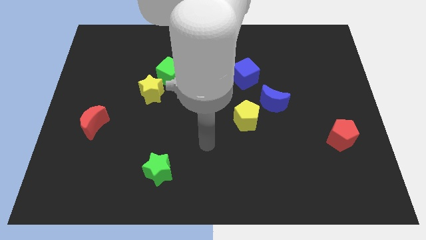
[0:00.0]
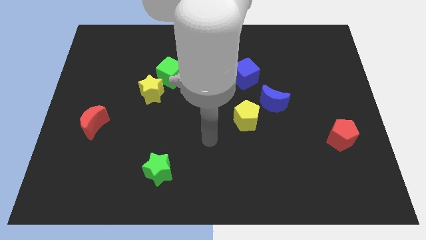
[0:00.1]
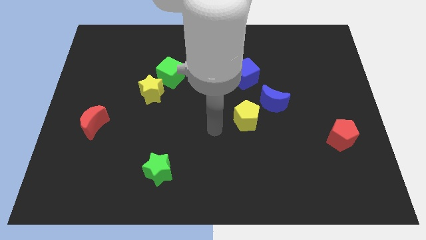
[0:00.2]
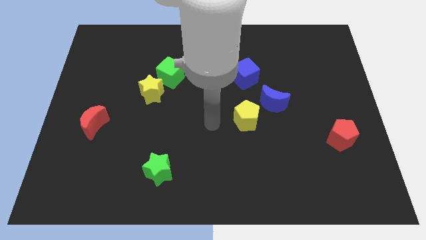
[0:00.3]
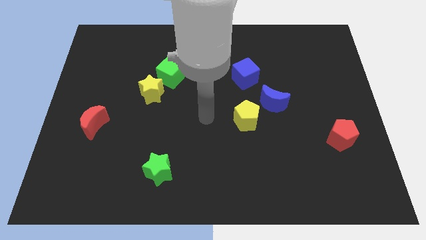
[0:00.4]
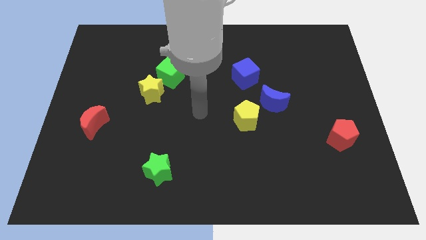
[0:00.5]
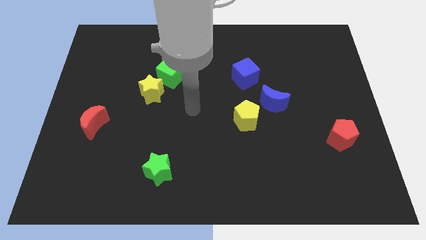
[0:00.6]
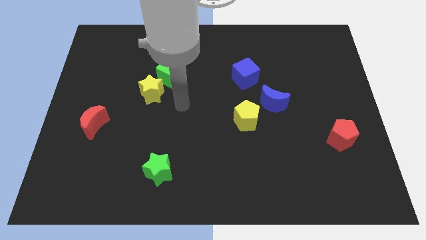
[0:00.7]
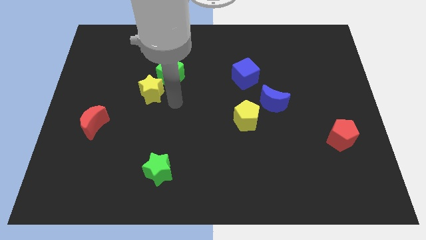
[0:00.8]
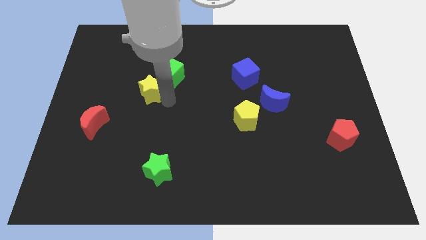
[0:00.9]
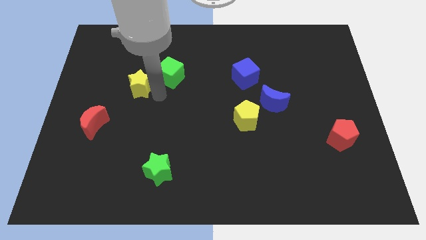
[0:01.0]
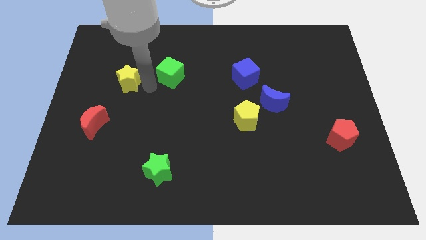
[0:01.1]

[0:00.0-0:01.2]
pull the green cube apart from the yellow star

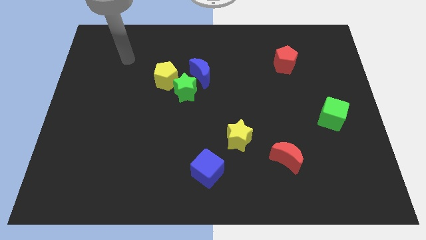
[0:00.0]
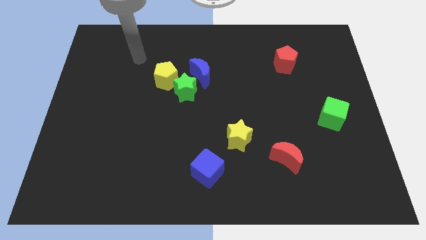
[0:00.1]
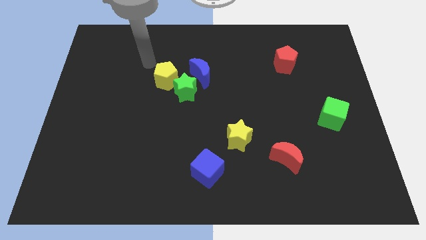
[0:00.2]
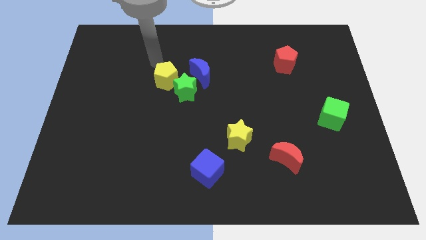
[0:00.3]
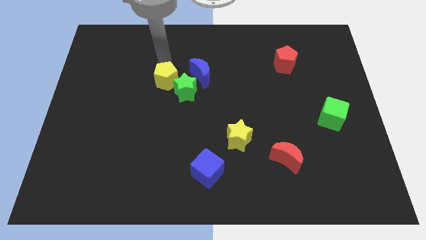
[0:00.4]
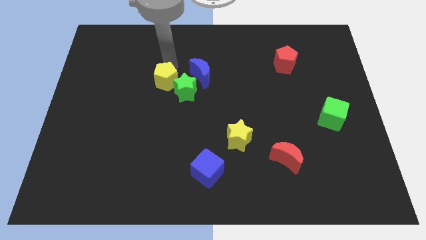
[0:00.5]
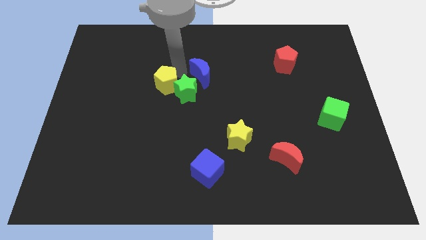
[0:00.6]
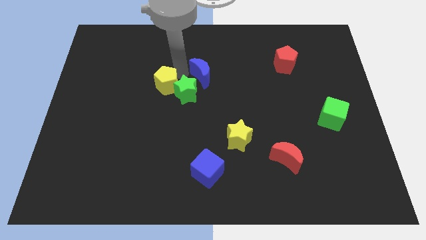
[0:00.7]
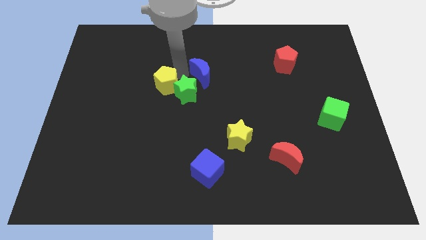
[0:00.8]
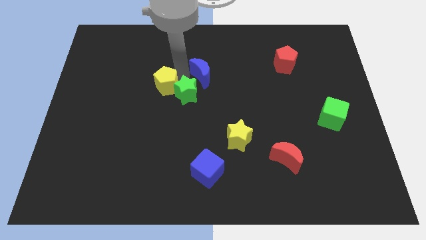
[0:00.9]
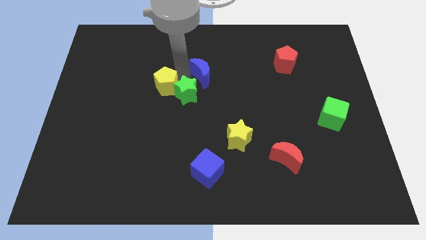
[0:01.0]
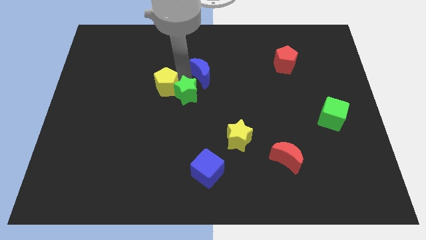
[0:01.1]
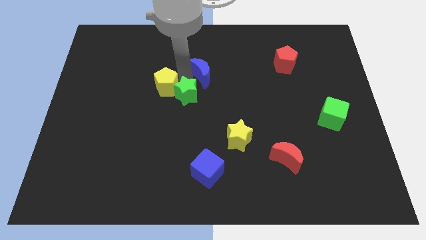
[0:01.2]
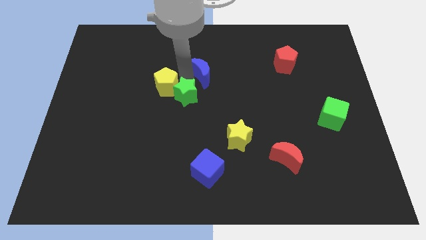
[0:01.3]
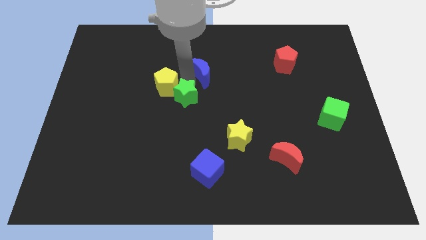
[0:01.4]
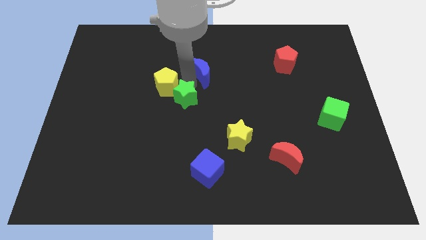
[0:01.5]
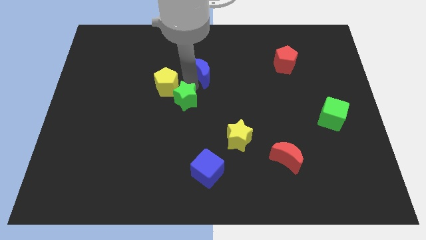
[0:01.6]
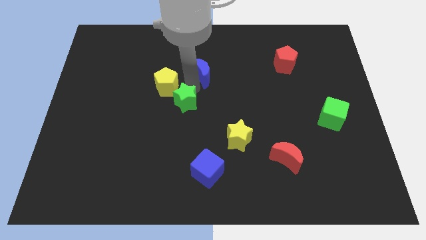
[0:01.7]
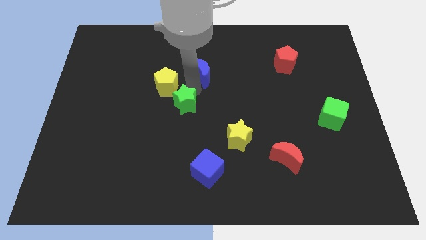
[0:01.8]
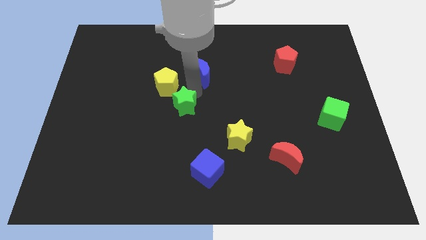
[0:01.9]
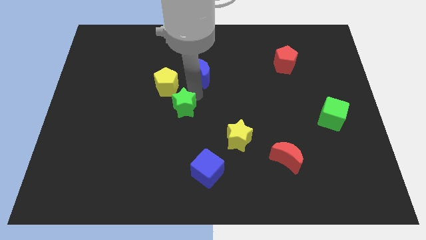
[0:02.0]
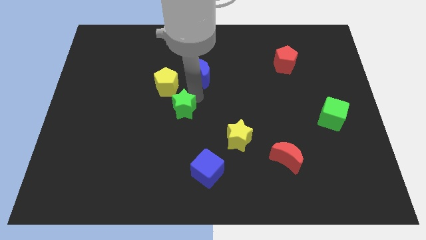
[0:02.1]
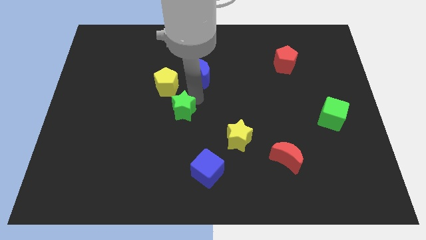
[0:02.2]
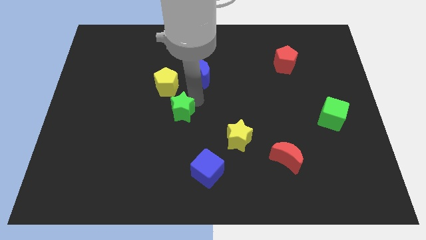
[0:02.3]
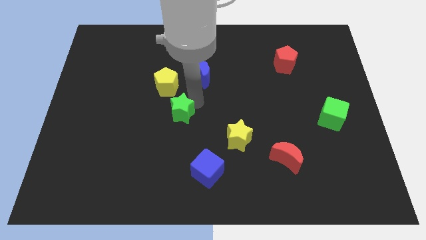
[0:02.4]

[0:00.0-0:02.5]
move the green star away from the blue moon and yellow pentagon

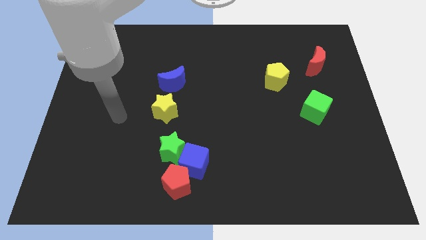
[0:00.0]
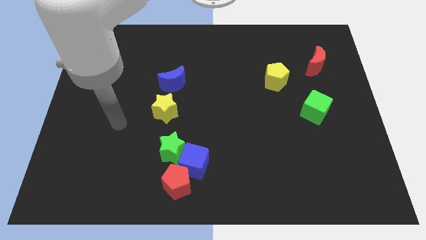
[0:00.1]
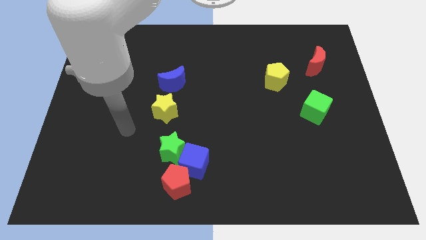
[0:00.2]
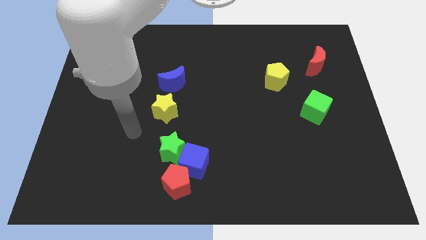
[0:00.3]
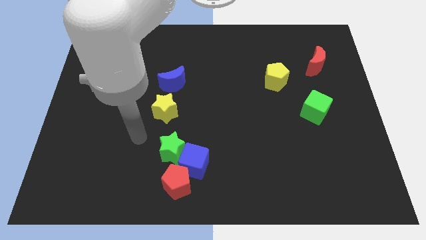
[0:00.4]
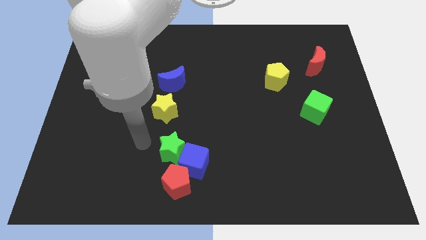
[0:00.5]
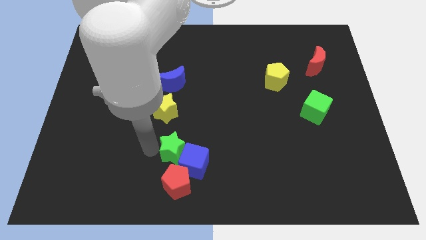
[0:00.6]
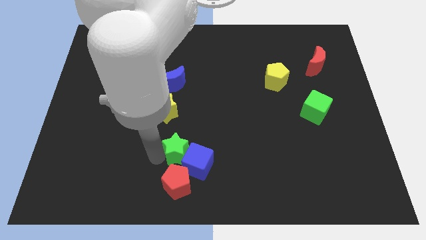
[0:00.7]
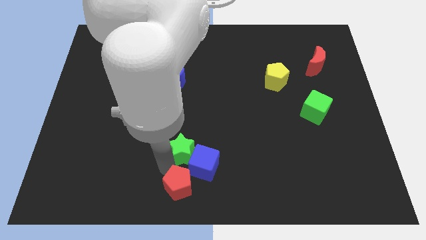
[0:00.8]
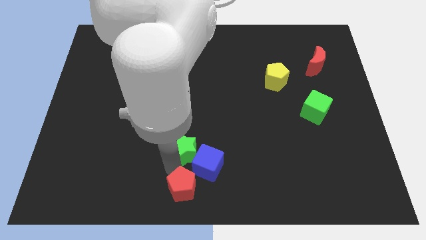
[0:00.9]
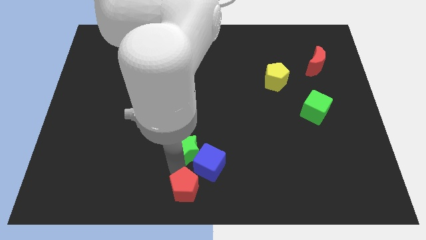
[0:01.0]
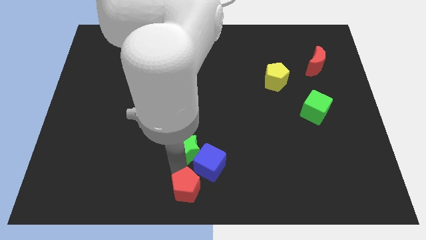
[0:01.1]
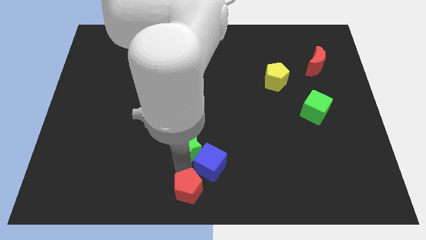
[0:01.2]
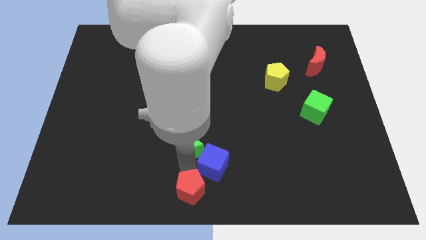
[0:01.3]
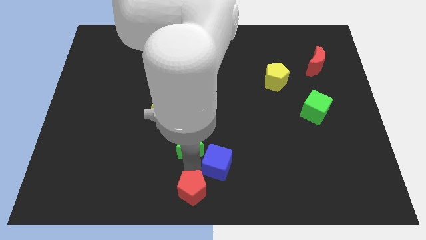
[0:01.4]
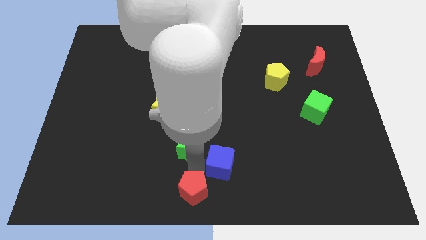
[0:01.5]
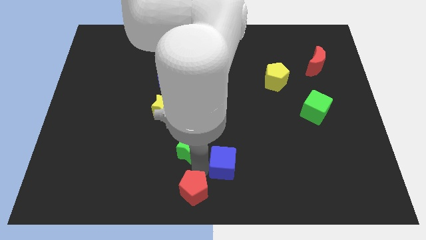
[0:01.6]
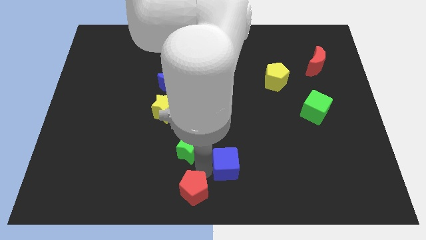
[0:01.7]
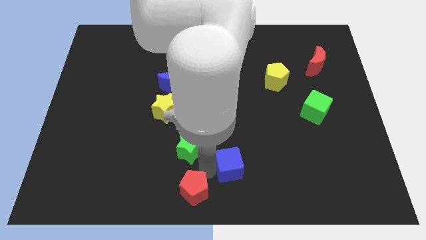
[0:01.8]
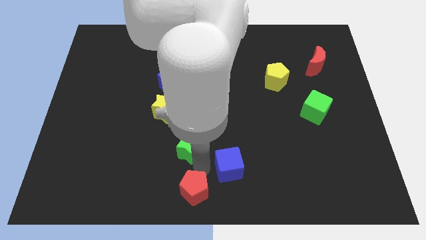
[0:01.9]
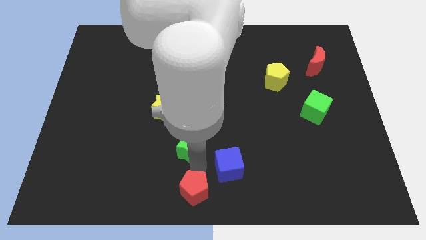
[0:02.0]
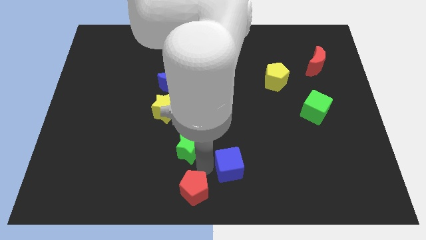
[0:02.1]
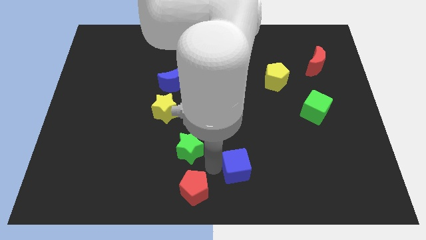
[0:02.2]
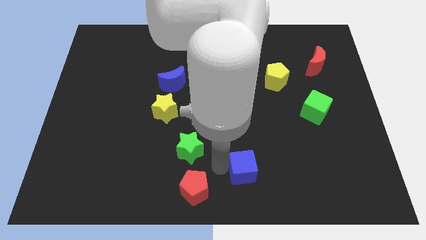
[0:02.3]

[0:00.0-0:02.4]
pull the blue cube apart from the green star and red pentagon

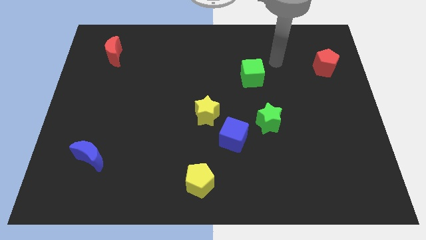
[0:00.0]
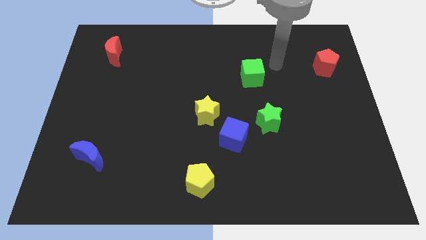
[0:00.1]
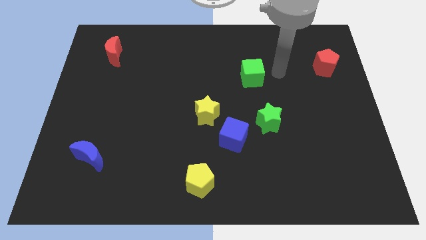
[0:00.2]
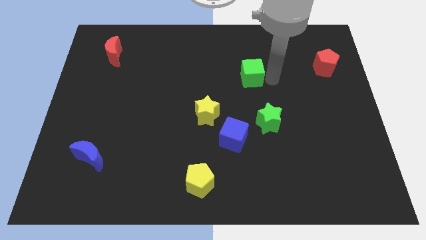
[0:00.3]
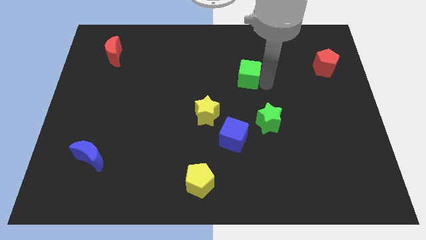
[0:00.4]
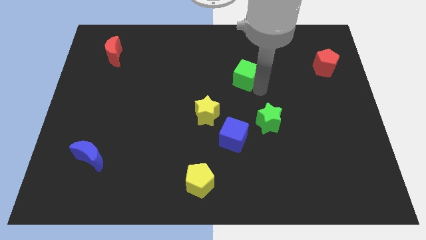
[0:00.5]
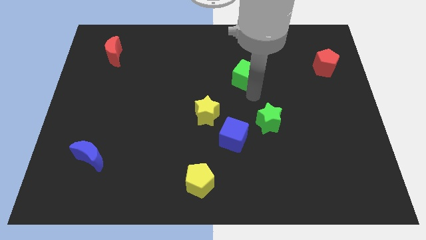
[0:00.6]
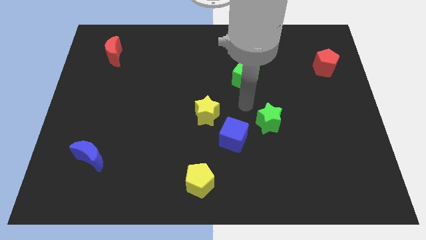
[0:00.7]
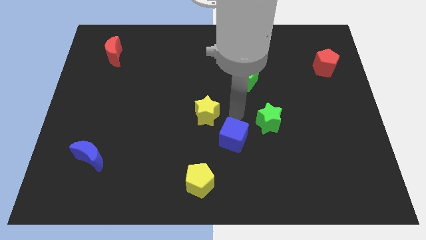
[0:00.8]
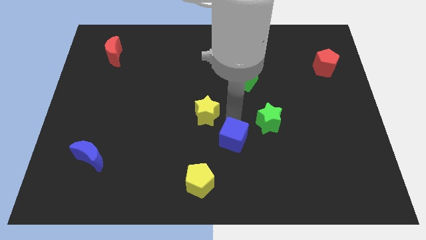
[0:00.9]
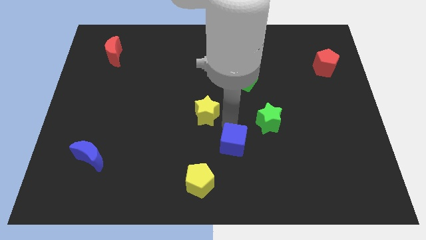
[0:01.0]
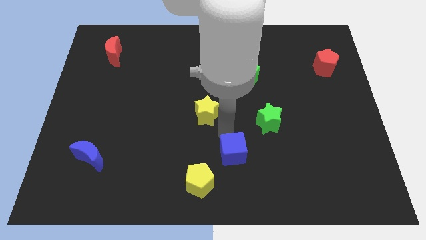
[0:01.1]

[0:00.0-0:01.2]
move the yellow star away from the blue cube

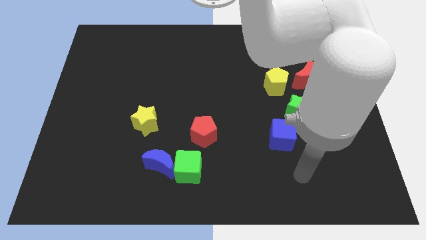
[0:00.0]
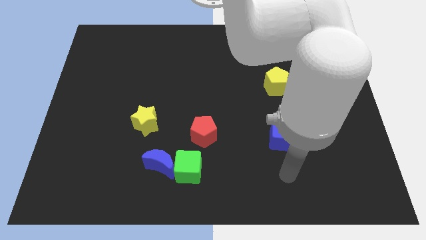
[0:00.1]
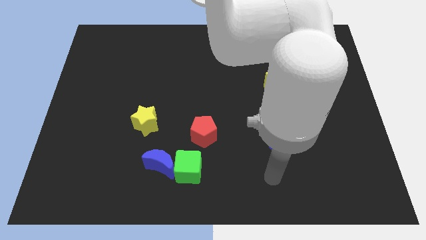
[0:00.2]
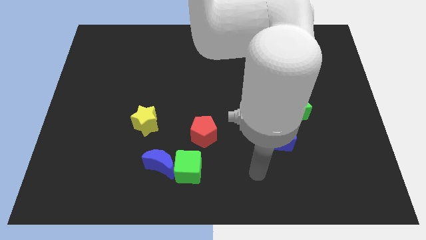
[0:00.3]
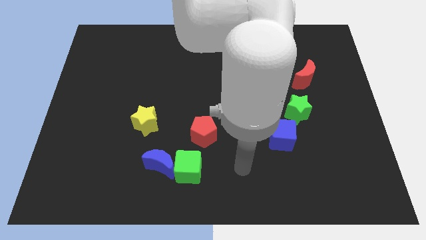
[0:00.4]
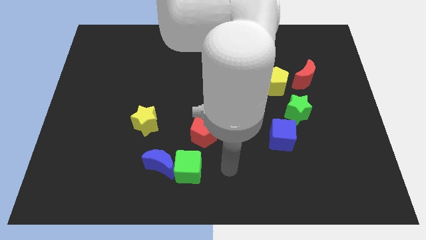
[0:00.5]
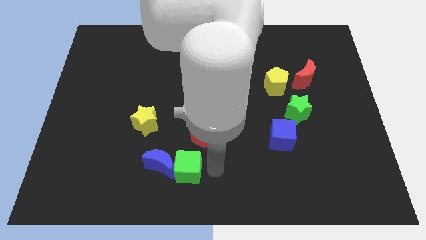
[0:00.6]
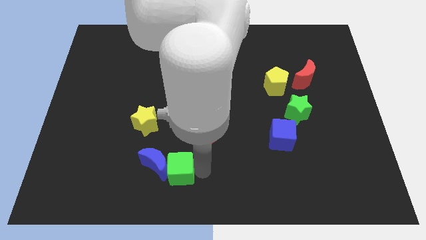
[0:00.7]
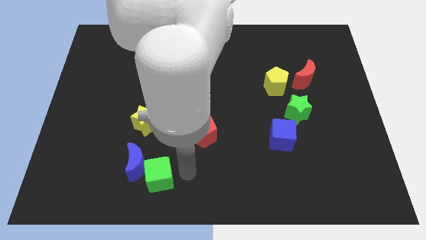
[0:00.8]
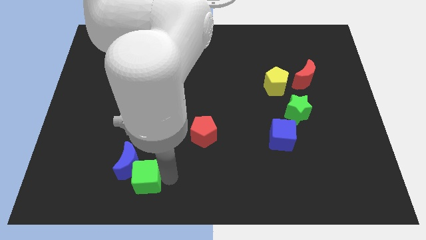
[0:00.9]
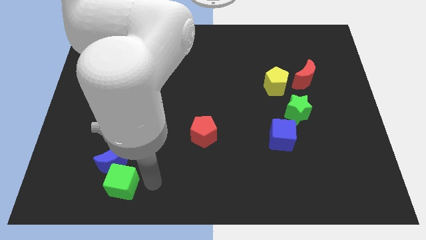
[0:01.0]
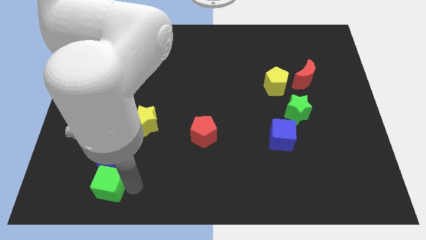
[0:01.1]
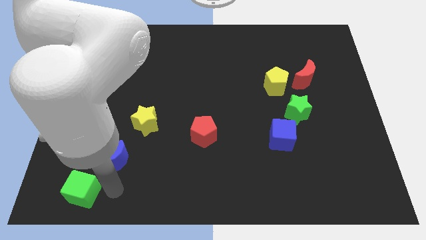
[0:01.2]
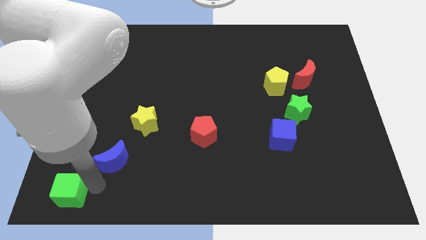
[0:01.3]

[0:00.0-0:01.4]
move the blue moon away from the green cube

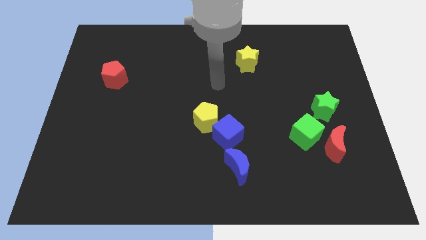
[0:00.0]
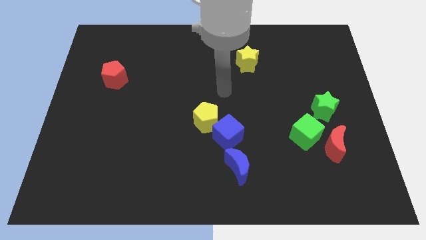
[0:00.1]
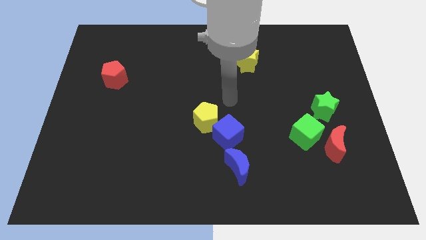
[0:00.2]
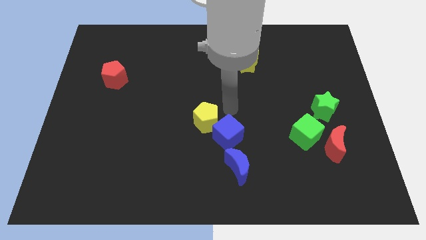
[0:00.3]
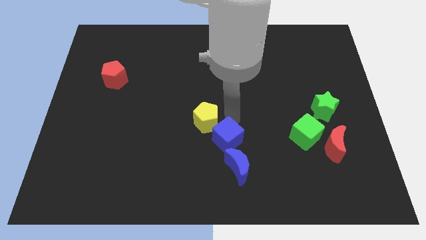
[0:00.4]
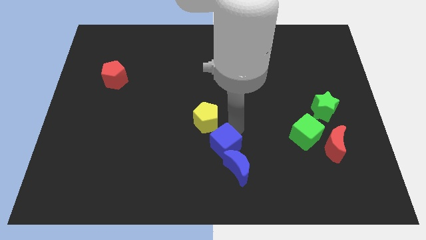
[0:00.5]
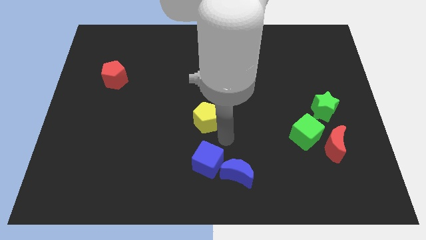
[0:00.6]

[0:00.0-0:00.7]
move the yellow pentagon away from the blue cube
